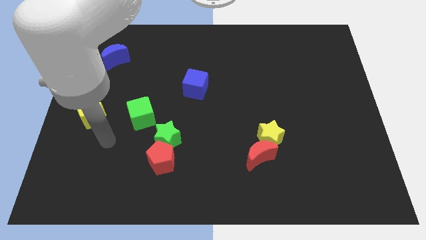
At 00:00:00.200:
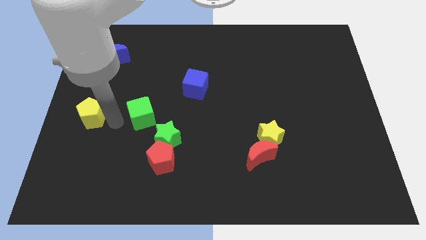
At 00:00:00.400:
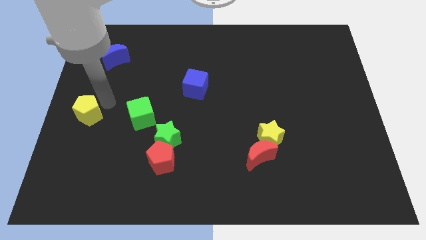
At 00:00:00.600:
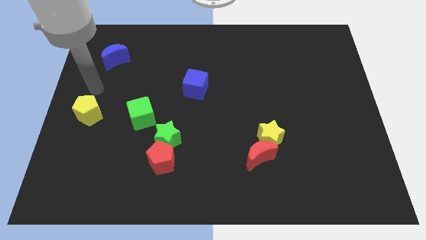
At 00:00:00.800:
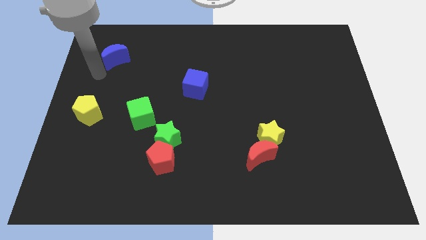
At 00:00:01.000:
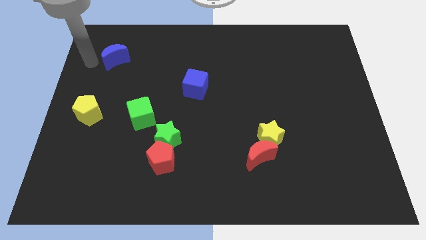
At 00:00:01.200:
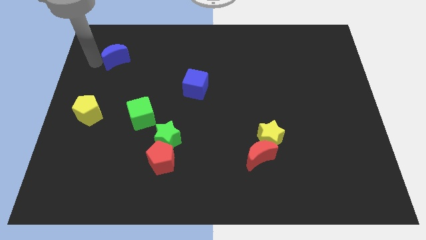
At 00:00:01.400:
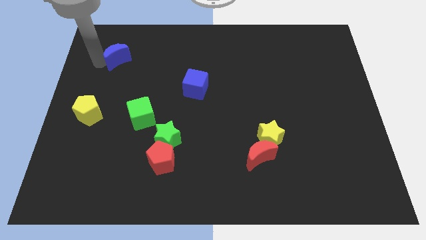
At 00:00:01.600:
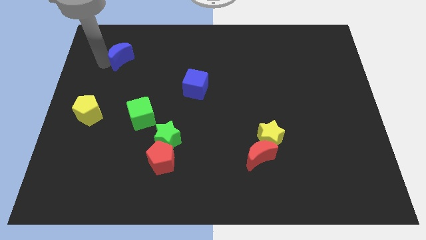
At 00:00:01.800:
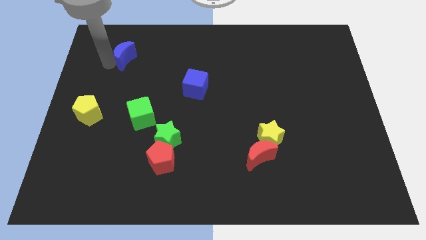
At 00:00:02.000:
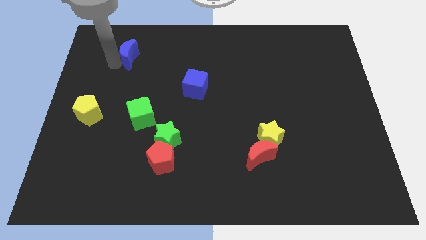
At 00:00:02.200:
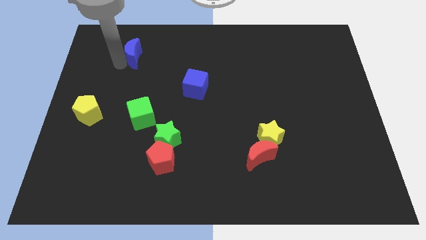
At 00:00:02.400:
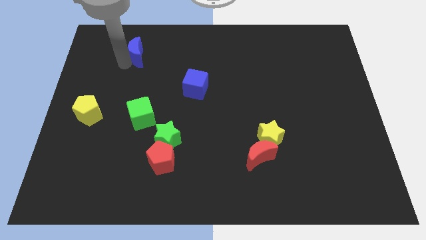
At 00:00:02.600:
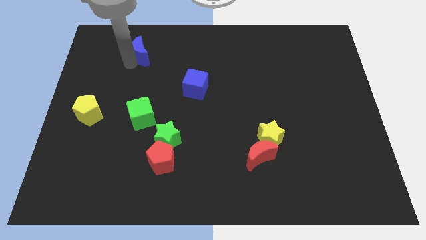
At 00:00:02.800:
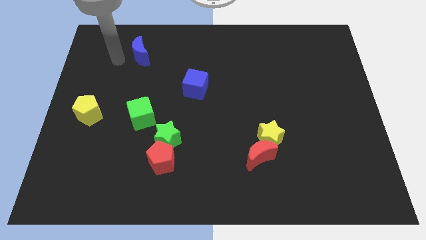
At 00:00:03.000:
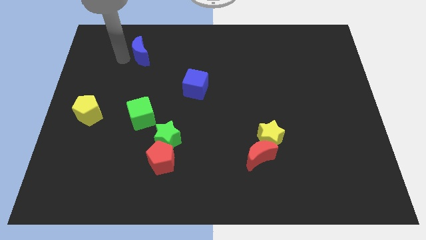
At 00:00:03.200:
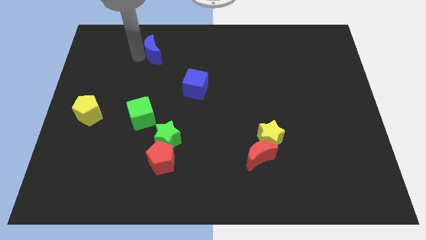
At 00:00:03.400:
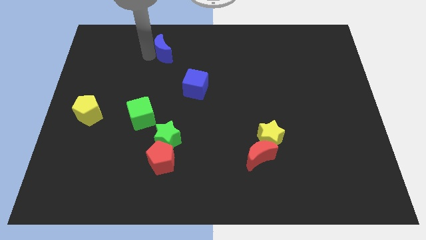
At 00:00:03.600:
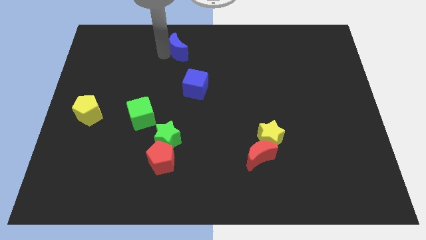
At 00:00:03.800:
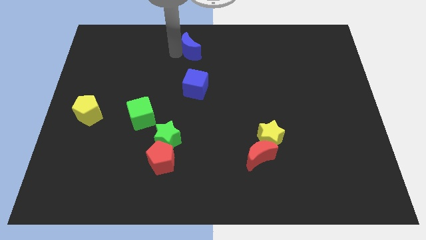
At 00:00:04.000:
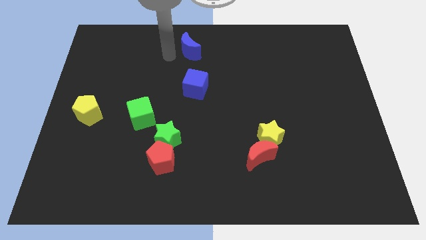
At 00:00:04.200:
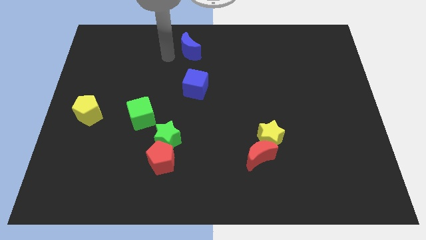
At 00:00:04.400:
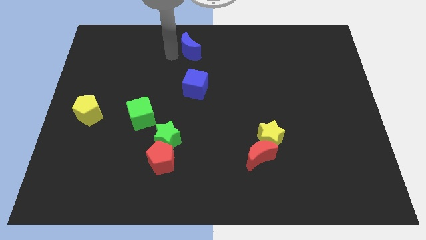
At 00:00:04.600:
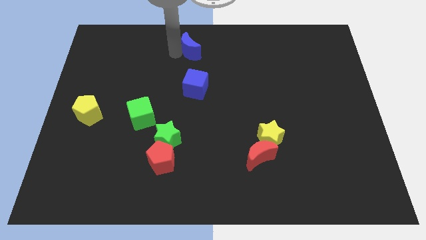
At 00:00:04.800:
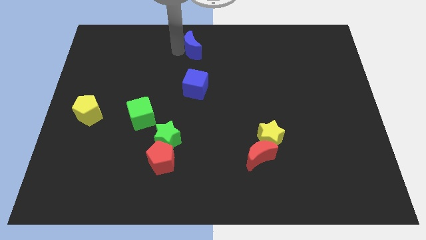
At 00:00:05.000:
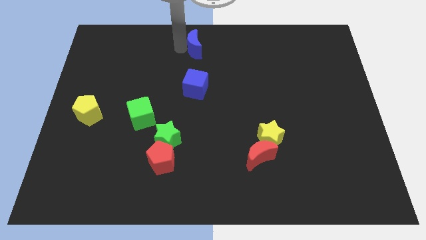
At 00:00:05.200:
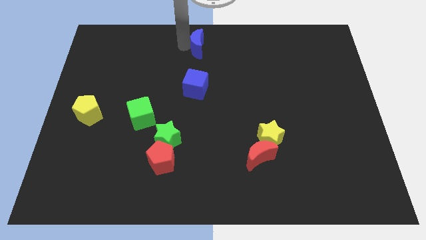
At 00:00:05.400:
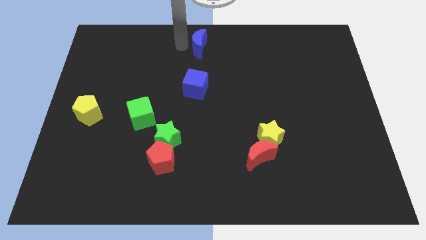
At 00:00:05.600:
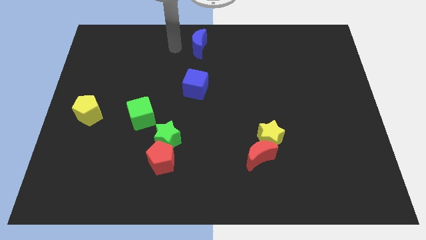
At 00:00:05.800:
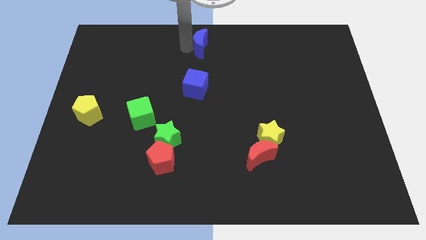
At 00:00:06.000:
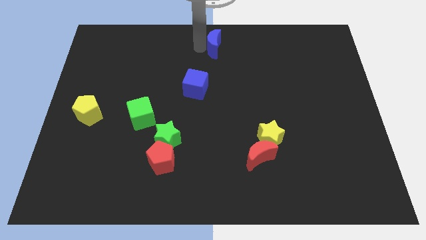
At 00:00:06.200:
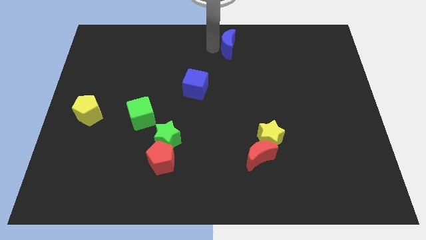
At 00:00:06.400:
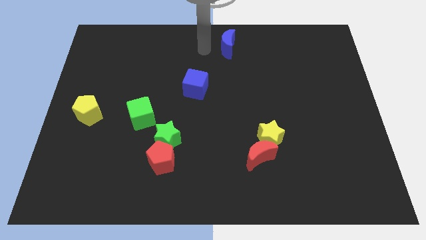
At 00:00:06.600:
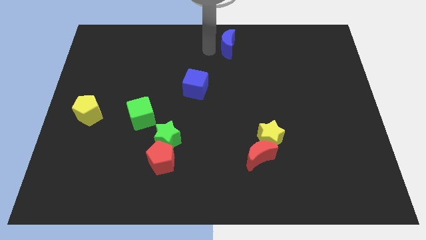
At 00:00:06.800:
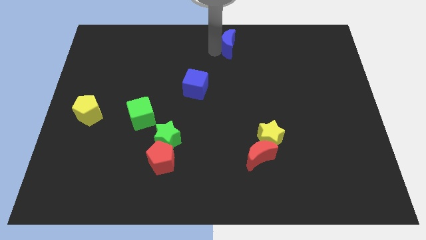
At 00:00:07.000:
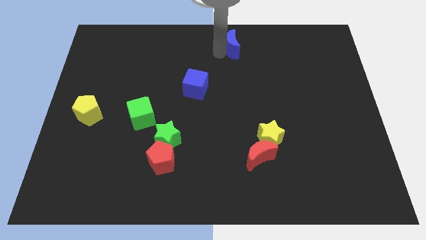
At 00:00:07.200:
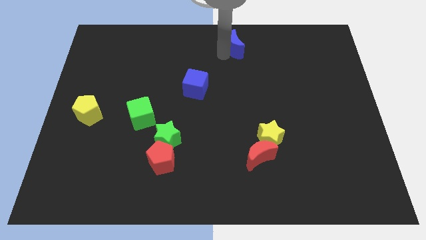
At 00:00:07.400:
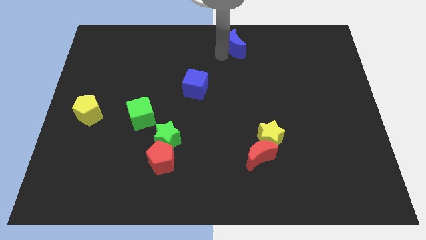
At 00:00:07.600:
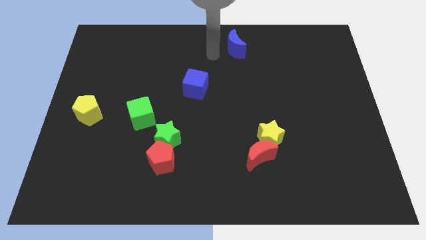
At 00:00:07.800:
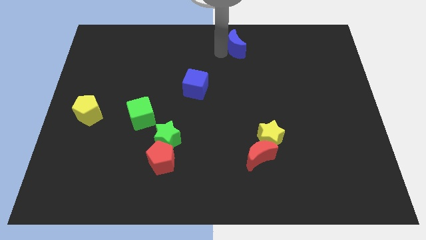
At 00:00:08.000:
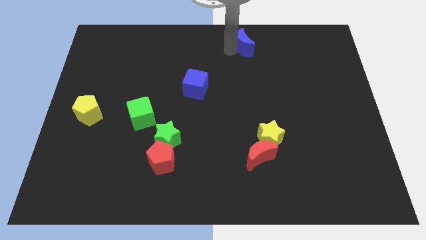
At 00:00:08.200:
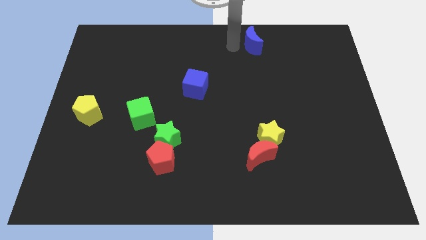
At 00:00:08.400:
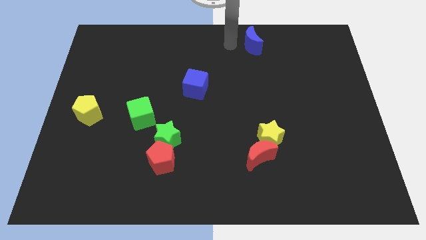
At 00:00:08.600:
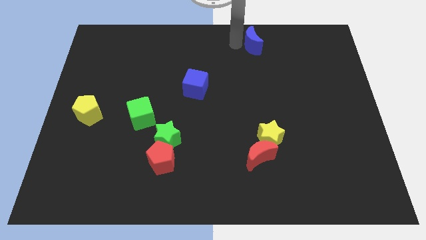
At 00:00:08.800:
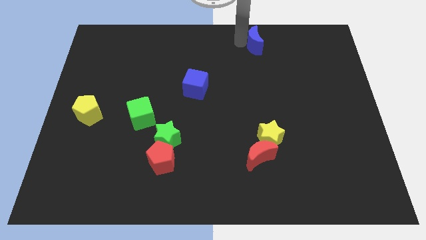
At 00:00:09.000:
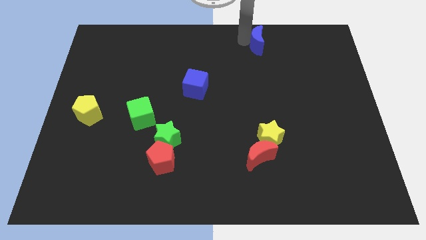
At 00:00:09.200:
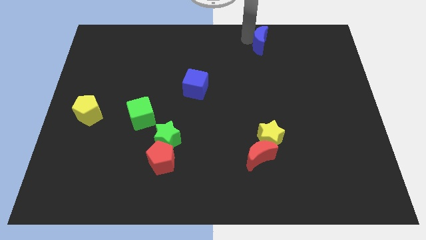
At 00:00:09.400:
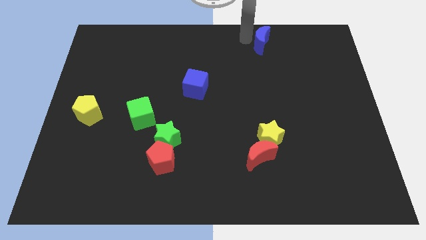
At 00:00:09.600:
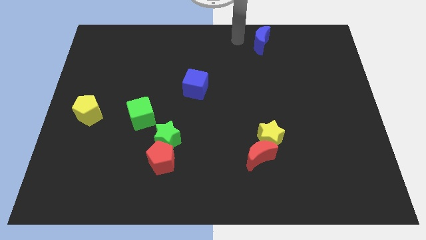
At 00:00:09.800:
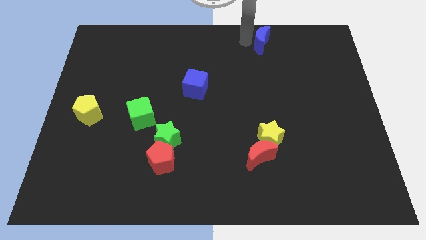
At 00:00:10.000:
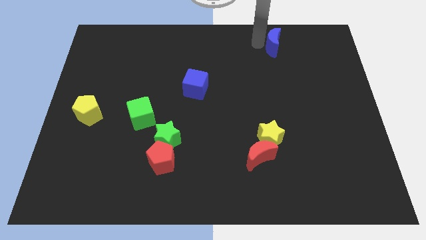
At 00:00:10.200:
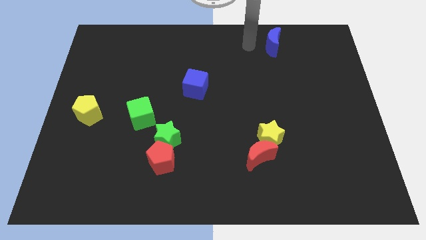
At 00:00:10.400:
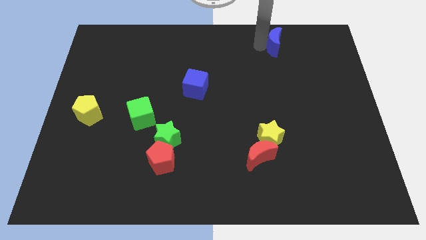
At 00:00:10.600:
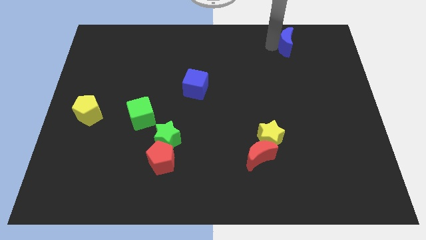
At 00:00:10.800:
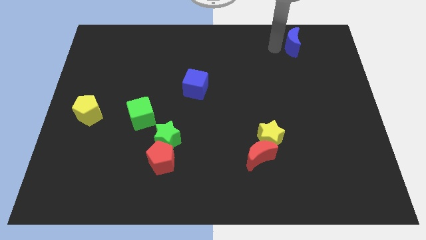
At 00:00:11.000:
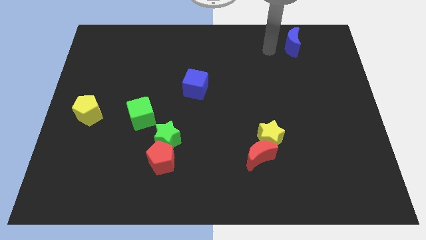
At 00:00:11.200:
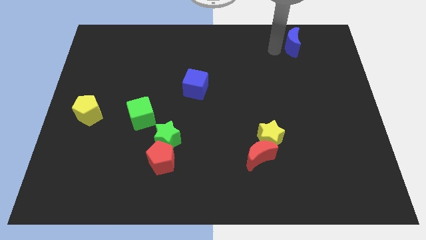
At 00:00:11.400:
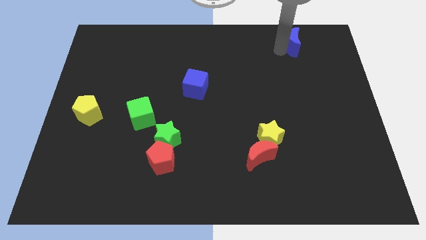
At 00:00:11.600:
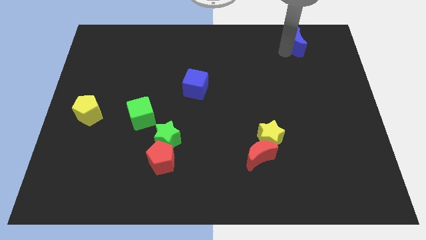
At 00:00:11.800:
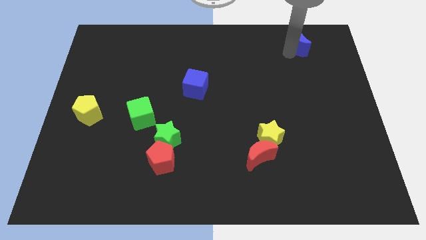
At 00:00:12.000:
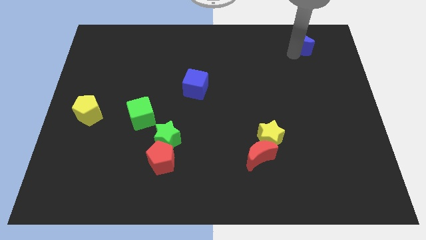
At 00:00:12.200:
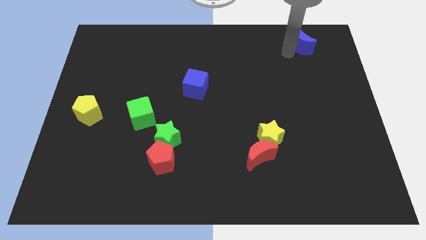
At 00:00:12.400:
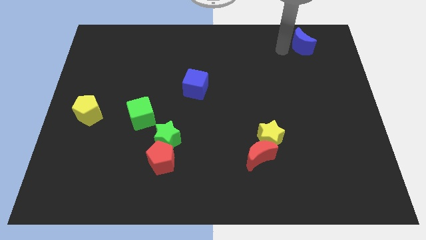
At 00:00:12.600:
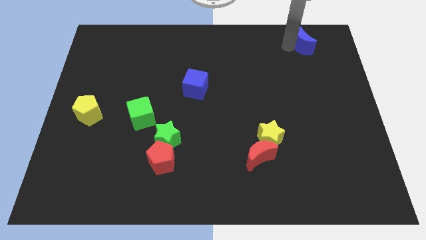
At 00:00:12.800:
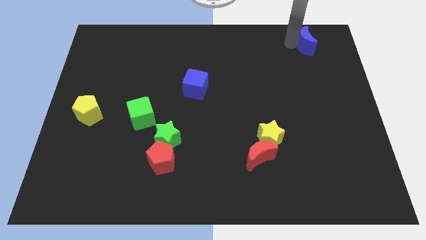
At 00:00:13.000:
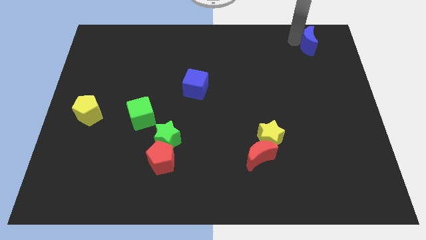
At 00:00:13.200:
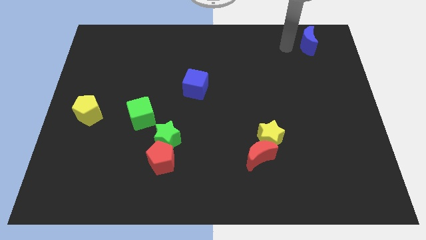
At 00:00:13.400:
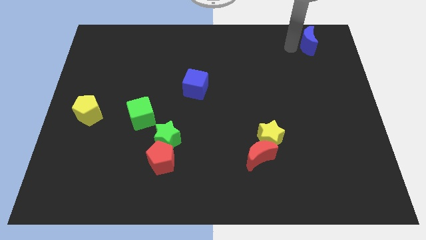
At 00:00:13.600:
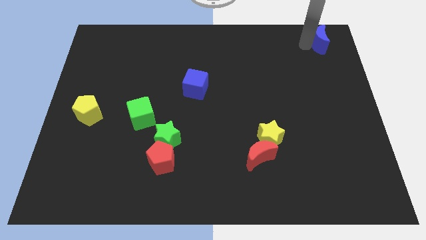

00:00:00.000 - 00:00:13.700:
move the blue moon to the top right corner
